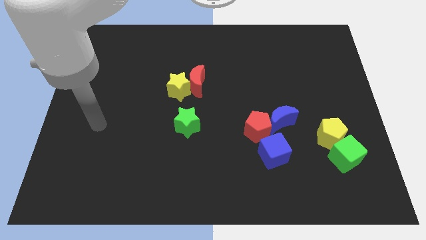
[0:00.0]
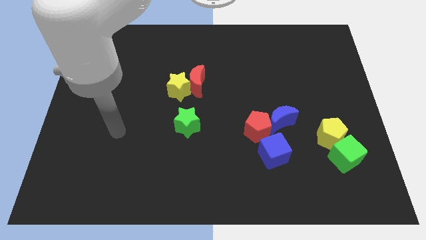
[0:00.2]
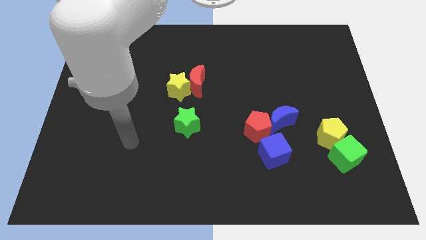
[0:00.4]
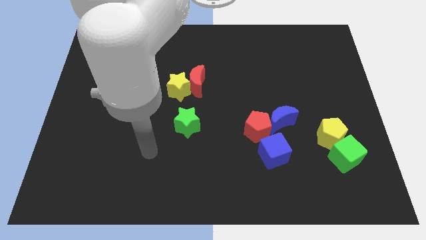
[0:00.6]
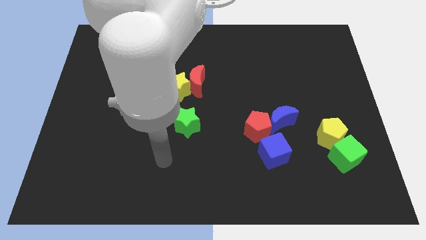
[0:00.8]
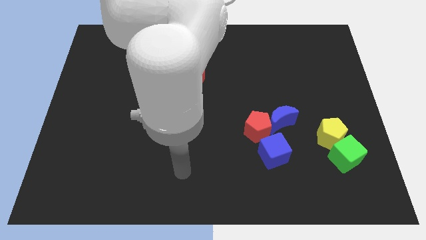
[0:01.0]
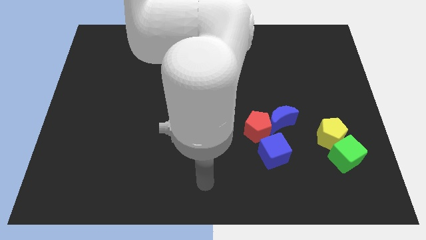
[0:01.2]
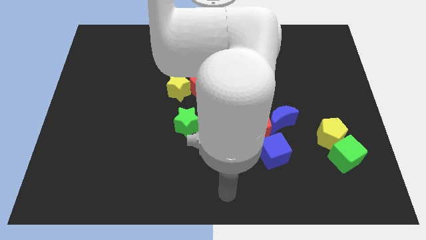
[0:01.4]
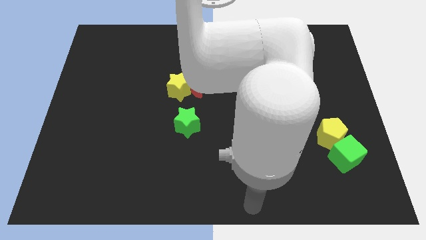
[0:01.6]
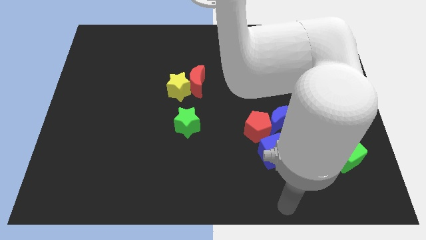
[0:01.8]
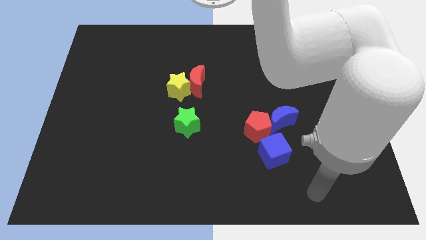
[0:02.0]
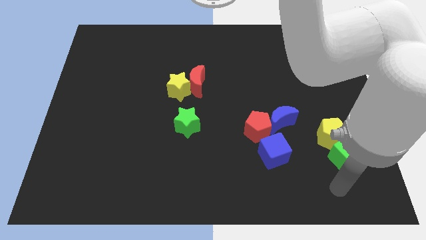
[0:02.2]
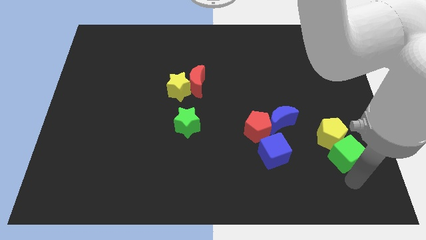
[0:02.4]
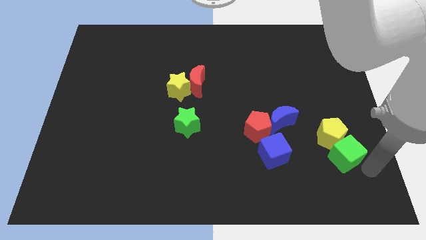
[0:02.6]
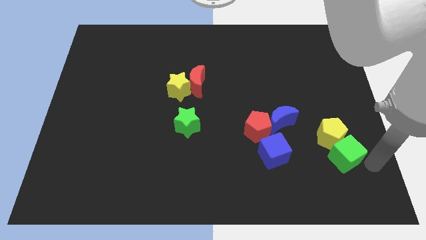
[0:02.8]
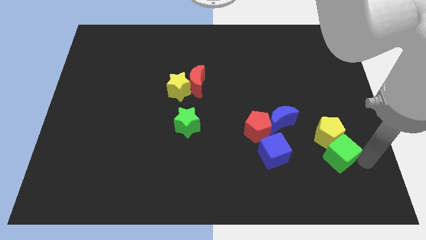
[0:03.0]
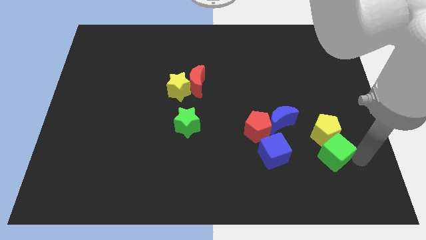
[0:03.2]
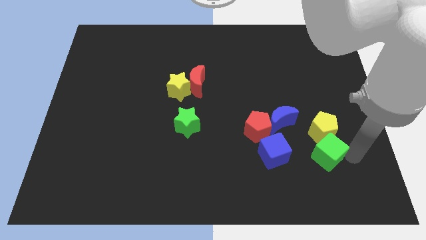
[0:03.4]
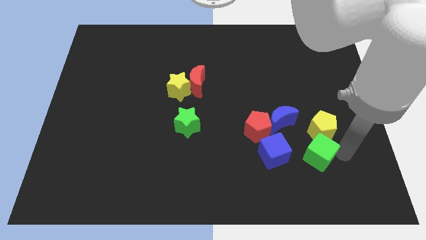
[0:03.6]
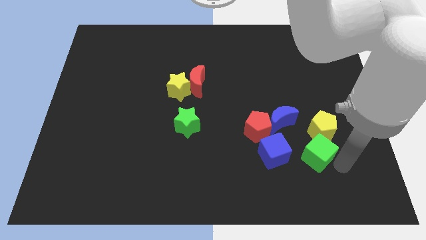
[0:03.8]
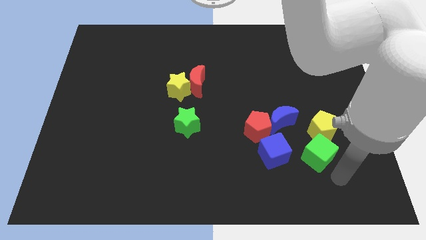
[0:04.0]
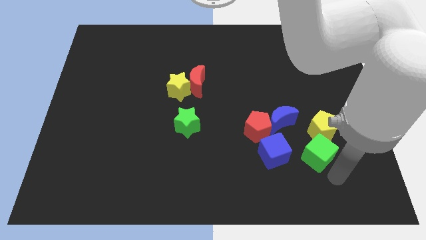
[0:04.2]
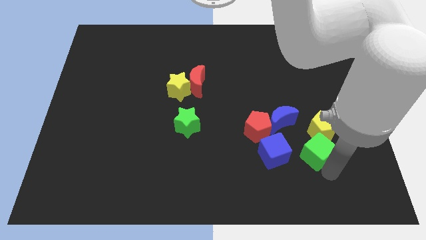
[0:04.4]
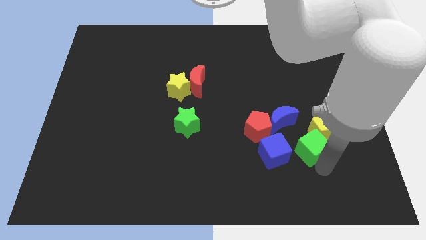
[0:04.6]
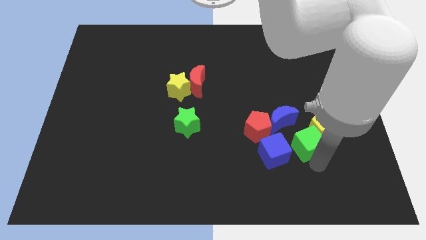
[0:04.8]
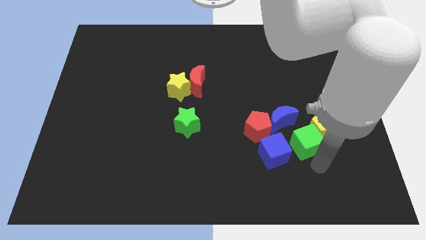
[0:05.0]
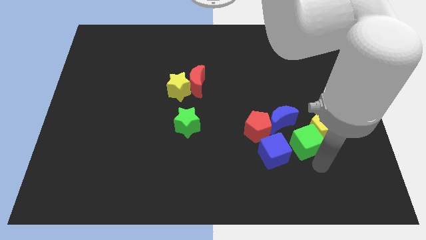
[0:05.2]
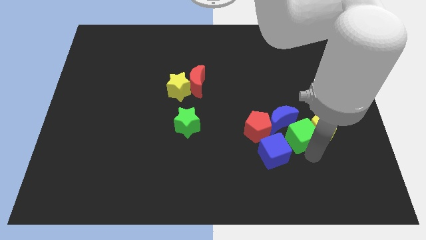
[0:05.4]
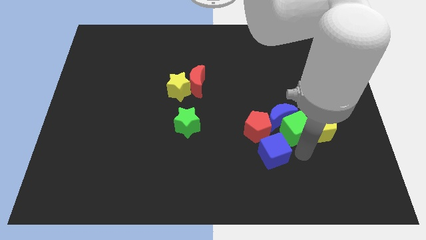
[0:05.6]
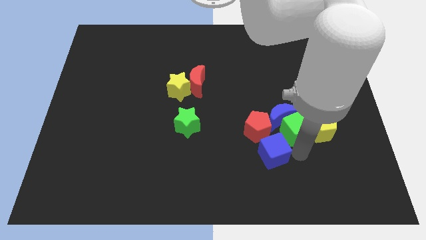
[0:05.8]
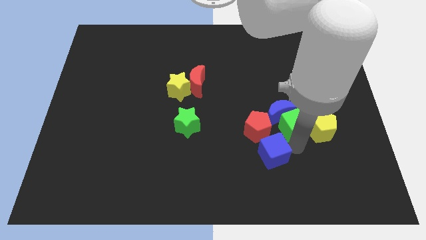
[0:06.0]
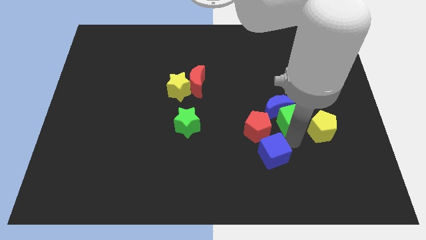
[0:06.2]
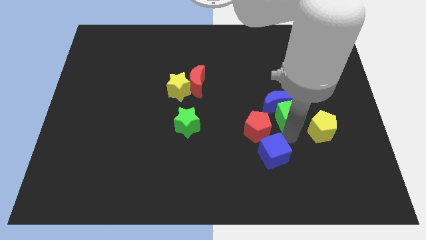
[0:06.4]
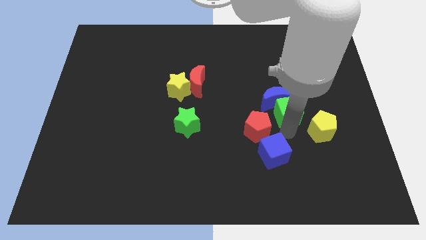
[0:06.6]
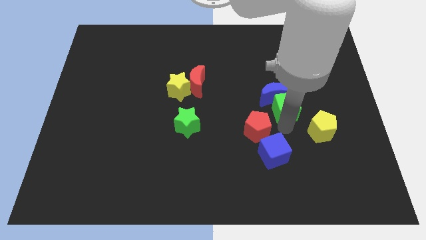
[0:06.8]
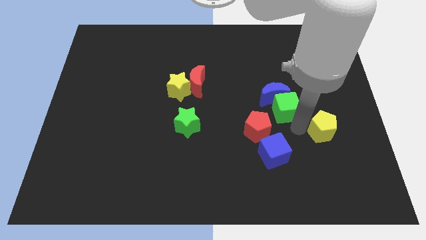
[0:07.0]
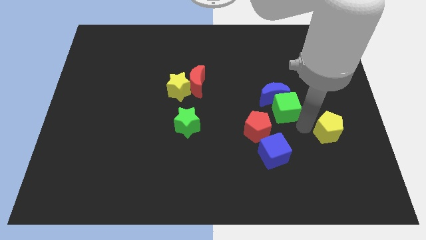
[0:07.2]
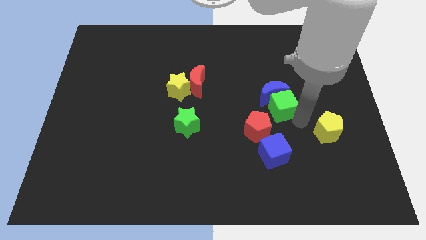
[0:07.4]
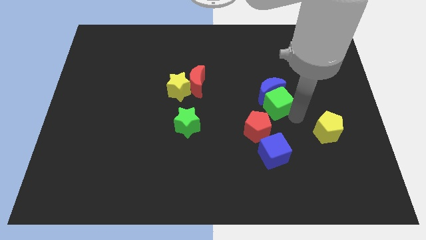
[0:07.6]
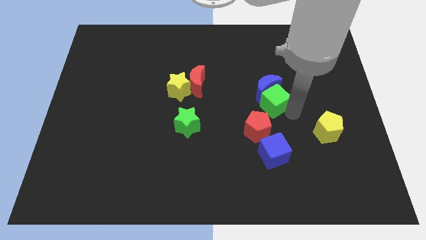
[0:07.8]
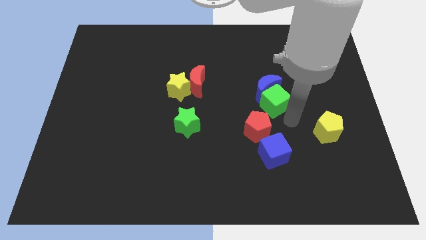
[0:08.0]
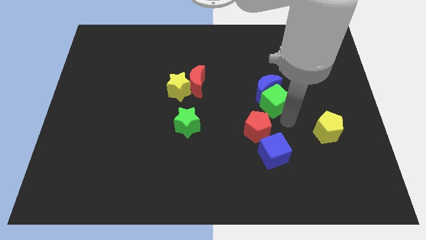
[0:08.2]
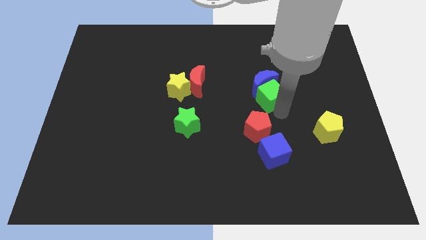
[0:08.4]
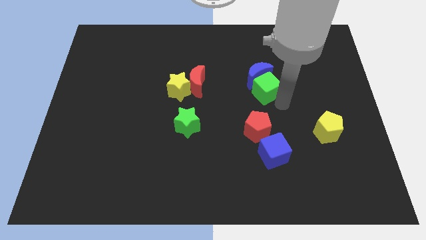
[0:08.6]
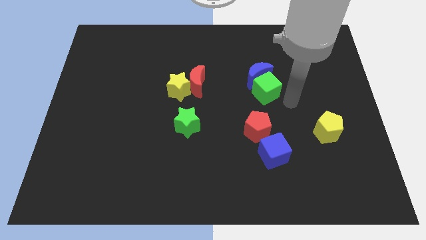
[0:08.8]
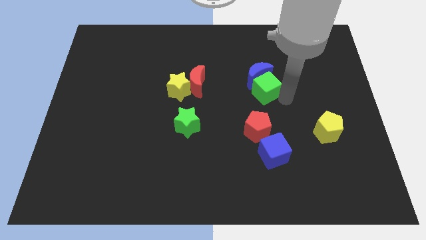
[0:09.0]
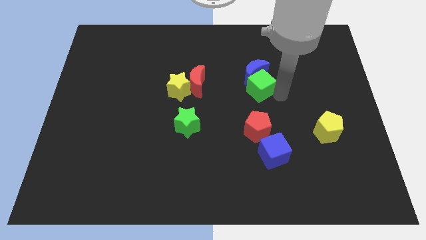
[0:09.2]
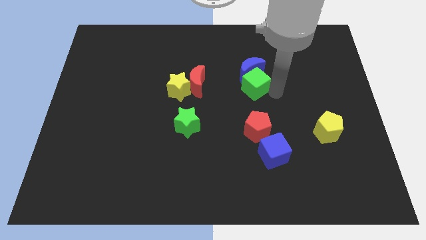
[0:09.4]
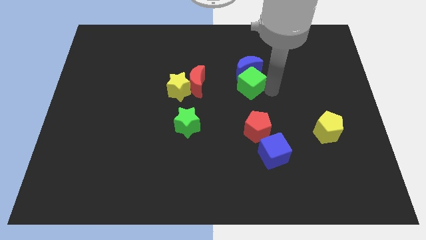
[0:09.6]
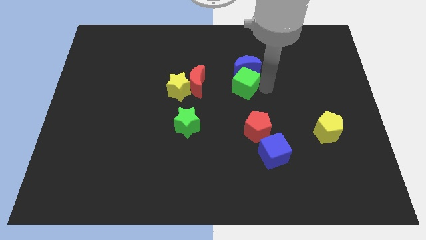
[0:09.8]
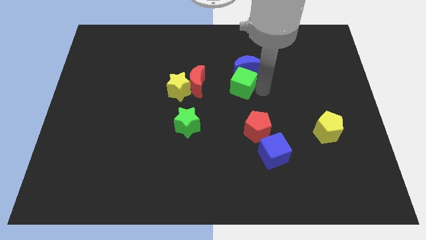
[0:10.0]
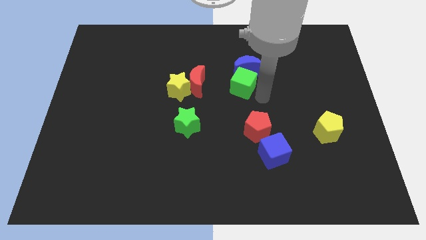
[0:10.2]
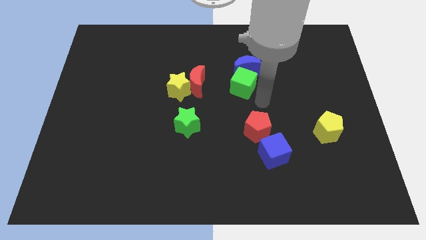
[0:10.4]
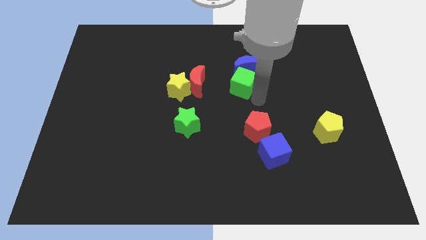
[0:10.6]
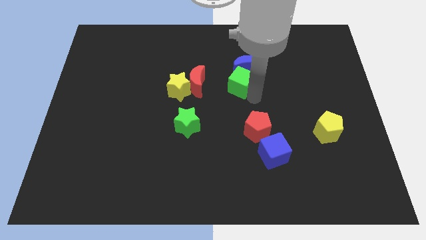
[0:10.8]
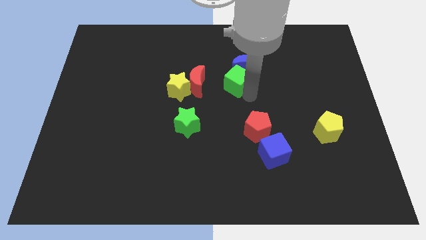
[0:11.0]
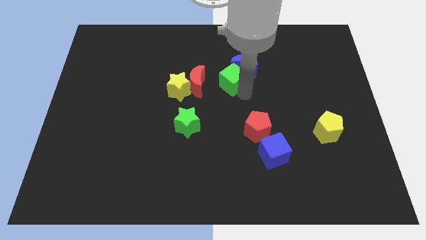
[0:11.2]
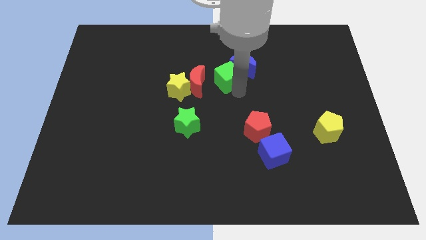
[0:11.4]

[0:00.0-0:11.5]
put the green cube to the top right of the red moon

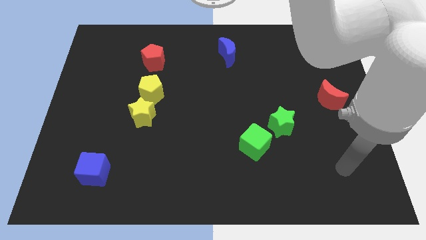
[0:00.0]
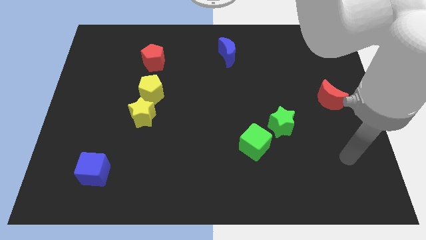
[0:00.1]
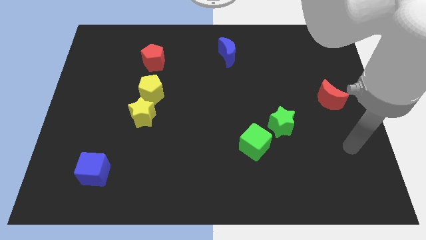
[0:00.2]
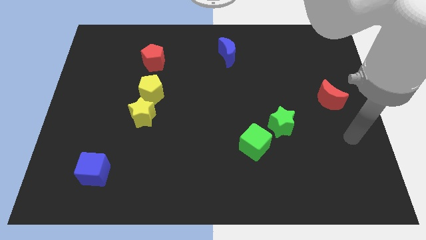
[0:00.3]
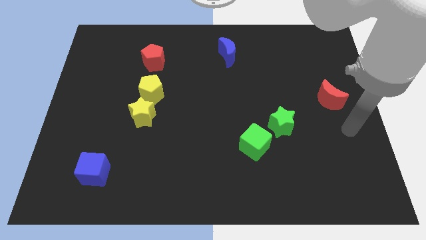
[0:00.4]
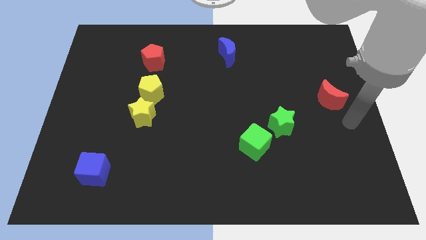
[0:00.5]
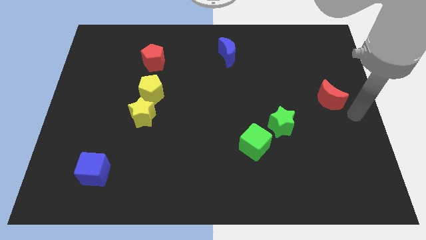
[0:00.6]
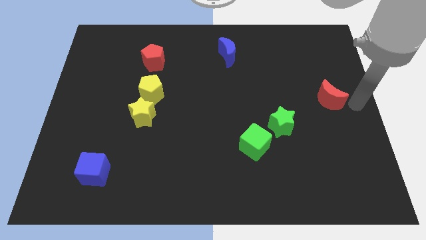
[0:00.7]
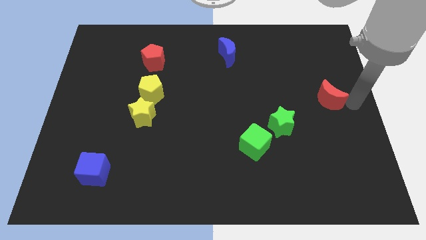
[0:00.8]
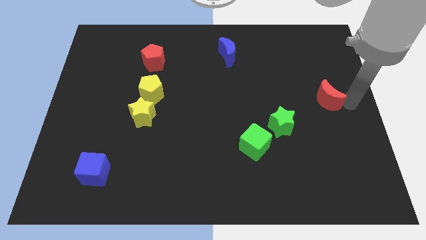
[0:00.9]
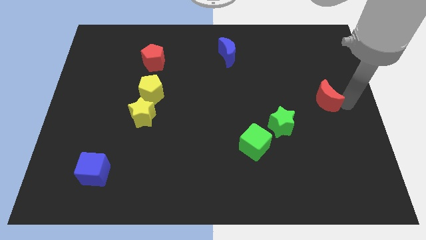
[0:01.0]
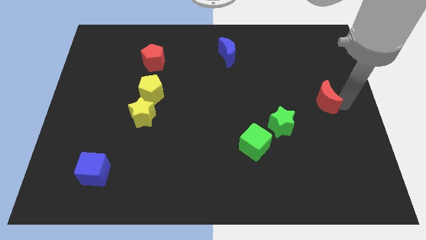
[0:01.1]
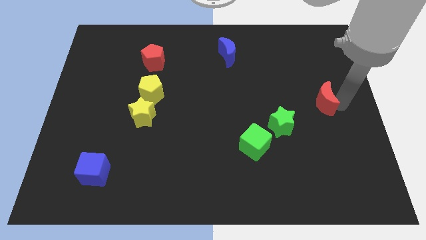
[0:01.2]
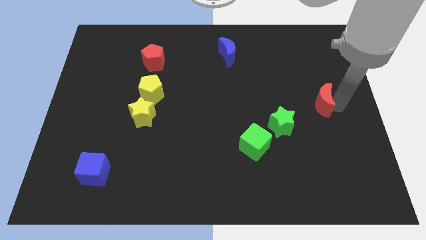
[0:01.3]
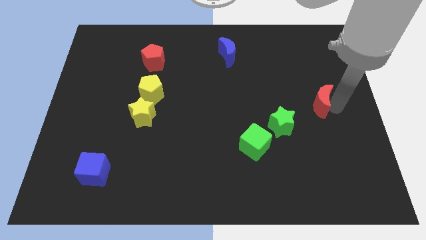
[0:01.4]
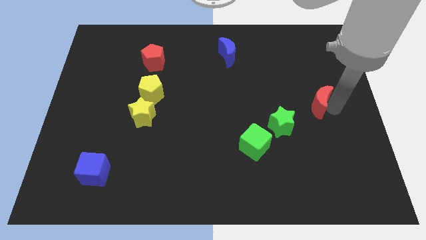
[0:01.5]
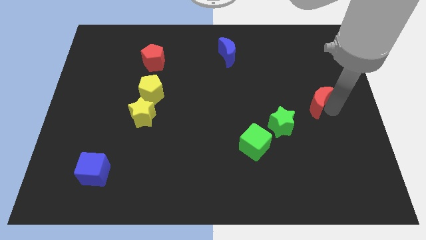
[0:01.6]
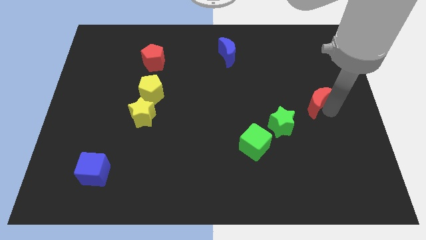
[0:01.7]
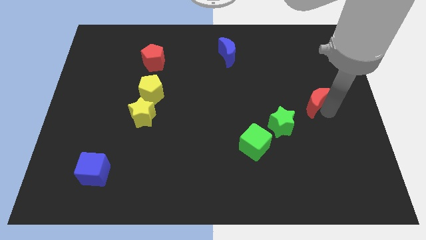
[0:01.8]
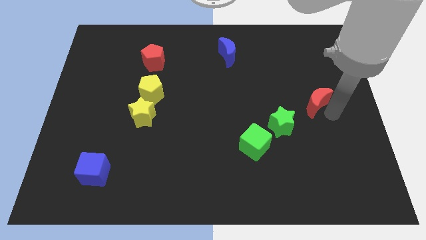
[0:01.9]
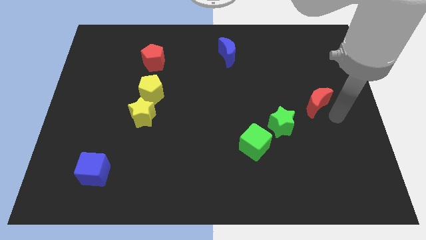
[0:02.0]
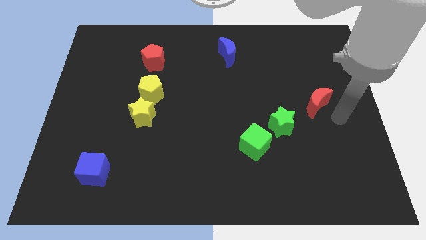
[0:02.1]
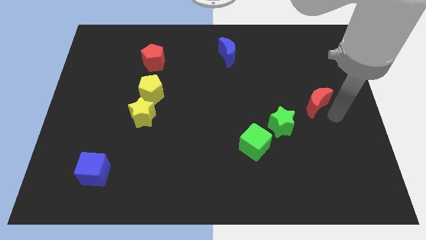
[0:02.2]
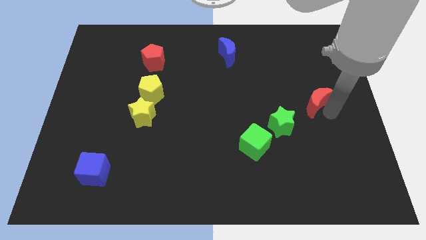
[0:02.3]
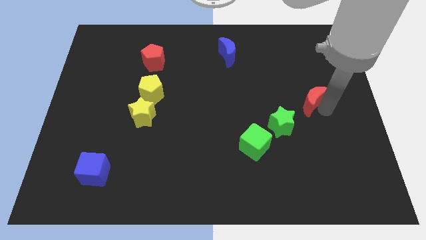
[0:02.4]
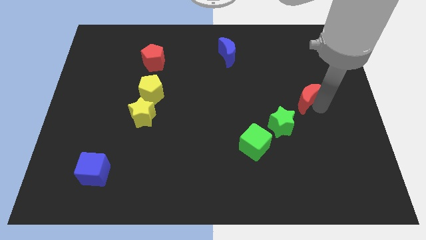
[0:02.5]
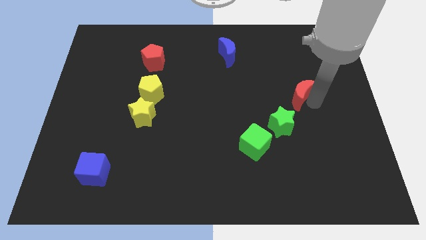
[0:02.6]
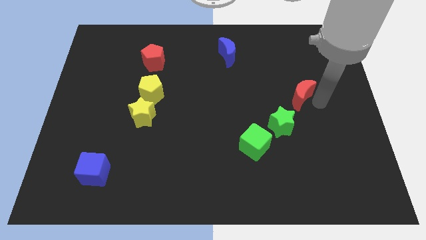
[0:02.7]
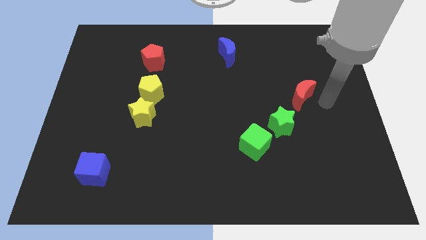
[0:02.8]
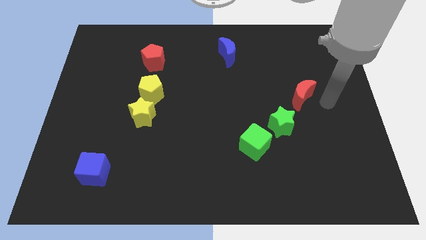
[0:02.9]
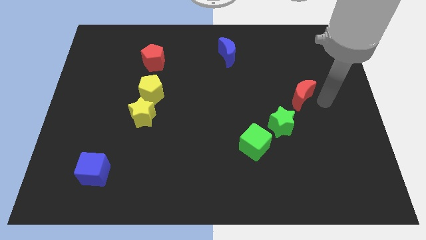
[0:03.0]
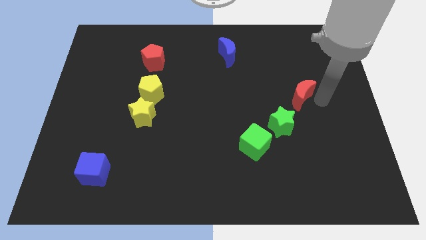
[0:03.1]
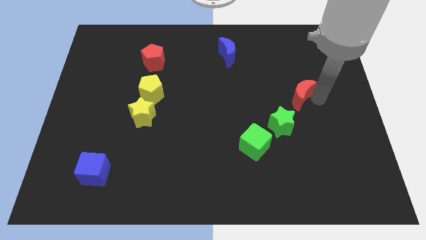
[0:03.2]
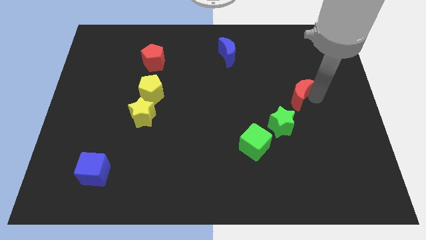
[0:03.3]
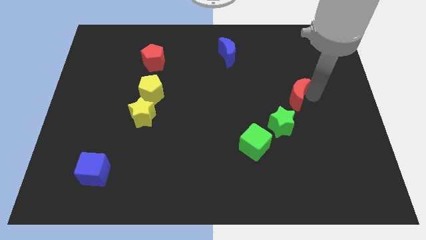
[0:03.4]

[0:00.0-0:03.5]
push the red moon to the top of the green star
